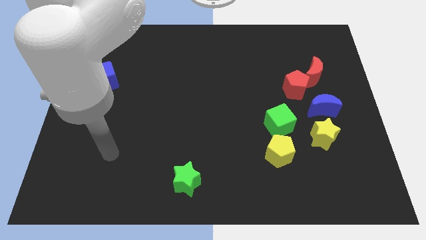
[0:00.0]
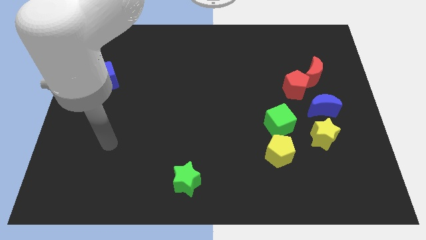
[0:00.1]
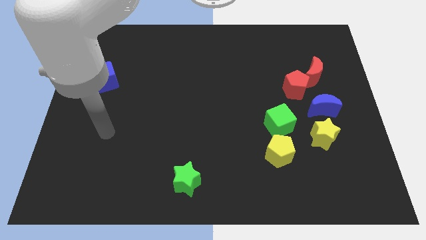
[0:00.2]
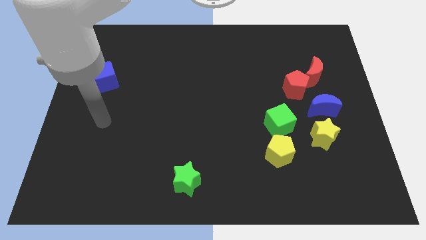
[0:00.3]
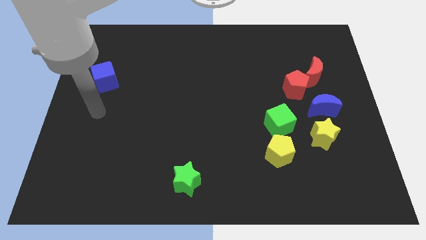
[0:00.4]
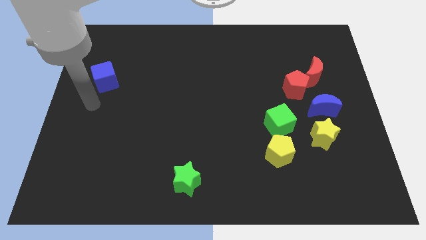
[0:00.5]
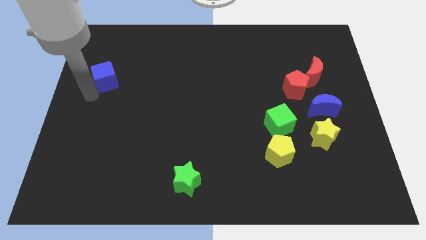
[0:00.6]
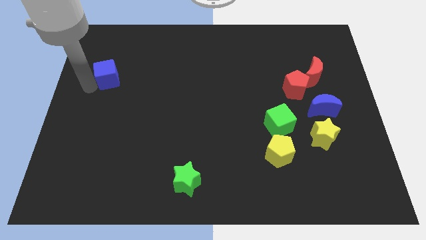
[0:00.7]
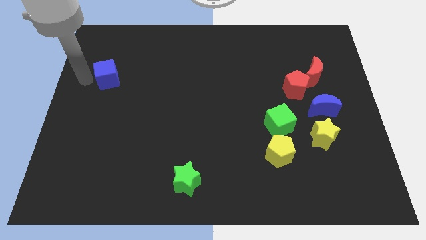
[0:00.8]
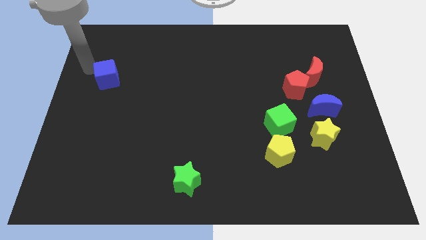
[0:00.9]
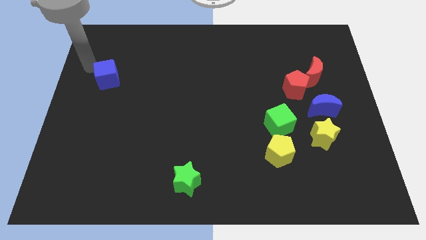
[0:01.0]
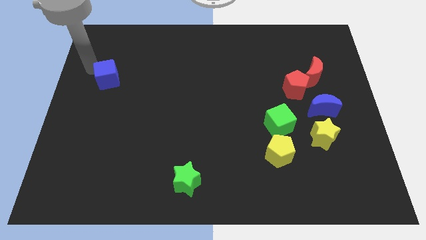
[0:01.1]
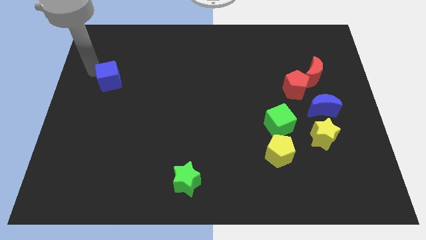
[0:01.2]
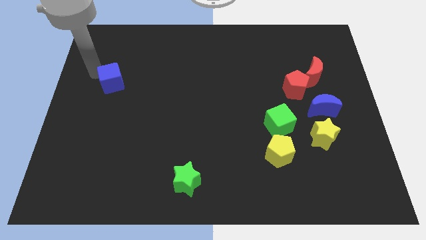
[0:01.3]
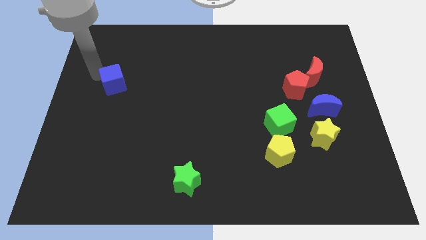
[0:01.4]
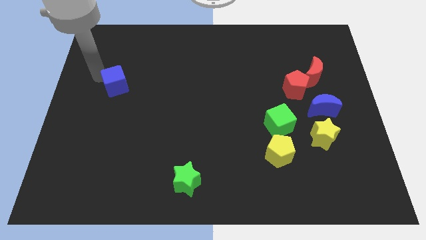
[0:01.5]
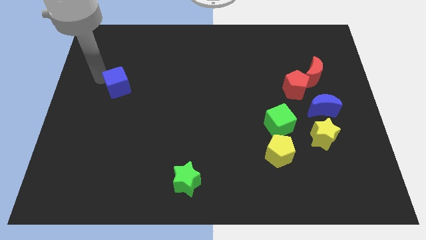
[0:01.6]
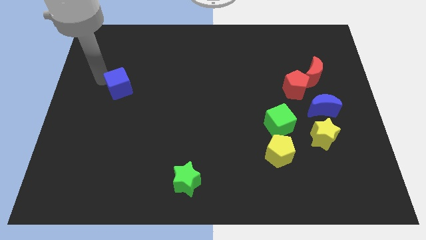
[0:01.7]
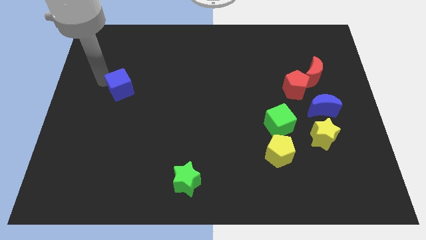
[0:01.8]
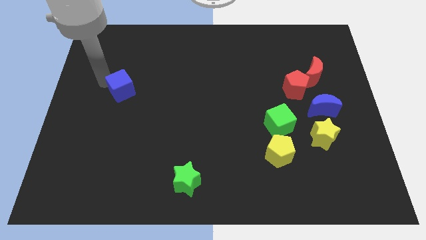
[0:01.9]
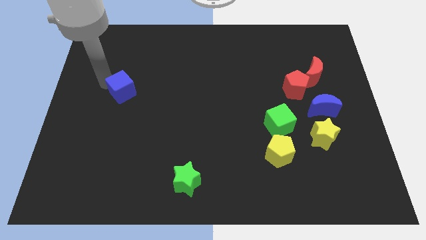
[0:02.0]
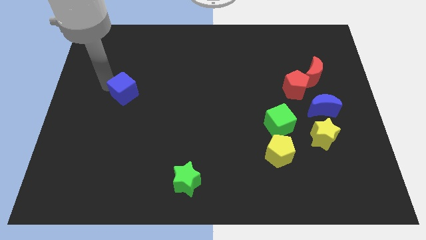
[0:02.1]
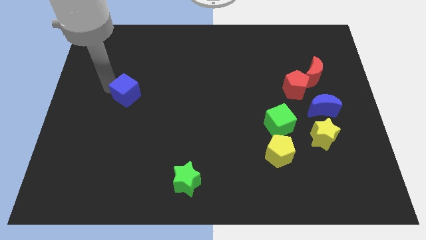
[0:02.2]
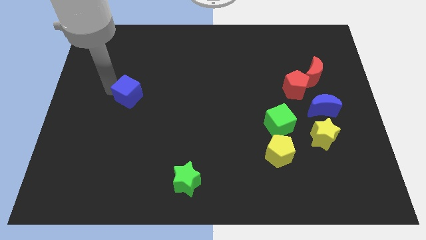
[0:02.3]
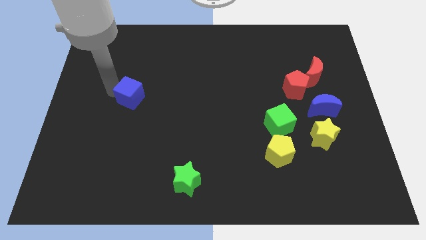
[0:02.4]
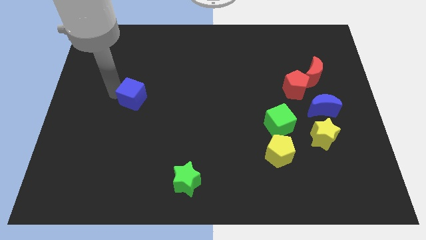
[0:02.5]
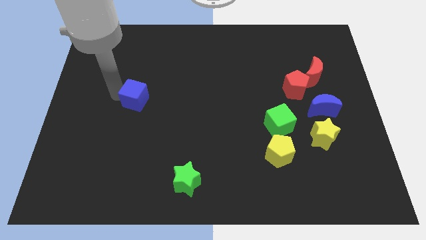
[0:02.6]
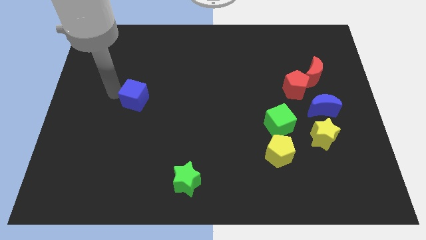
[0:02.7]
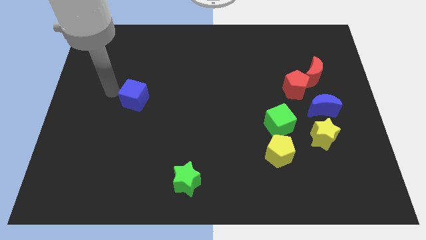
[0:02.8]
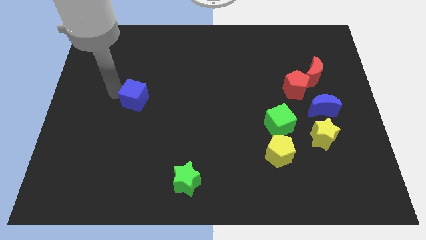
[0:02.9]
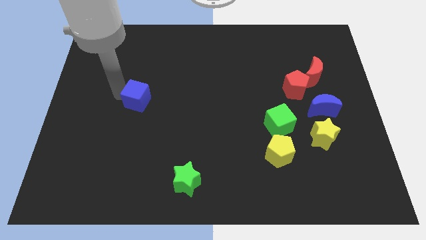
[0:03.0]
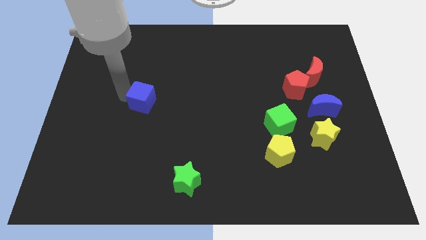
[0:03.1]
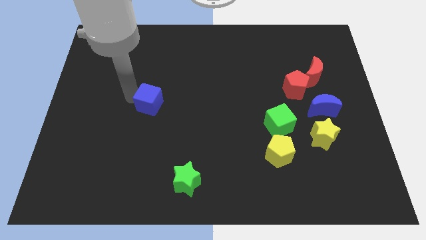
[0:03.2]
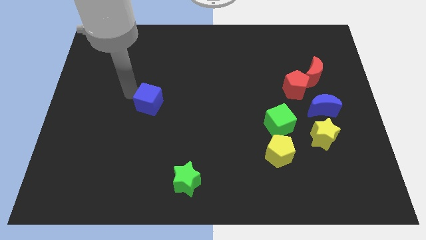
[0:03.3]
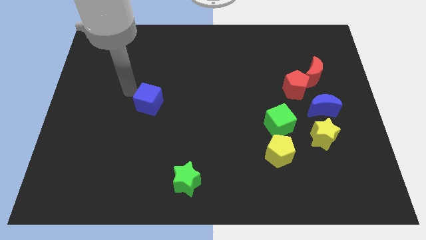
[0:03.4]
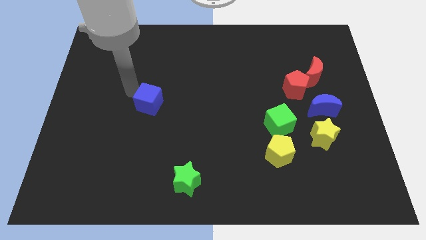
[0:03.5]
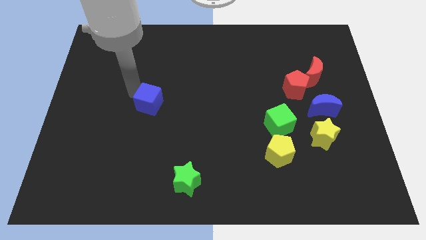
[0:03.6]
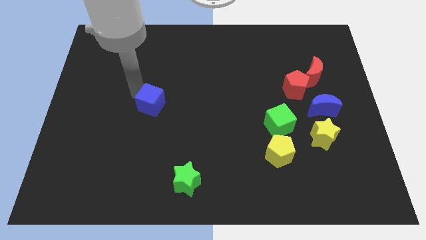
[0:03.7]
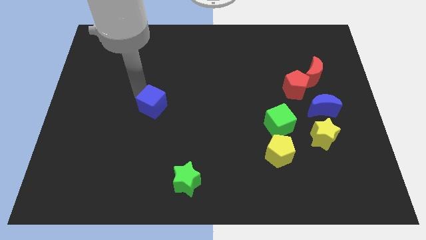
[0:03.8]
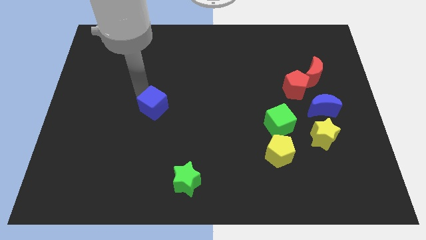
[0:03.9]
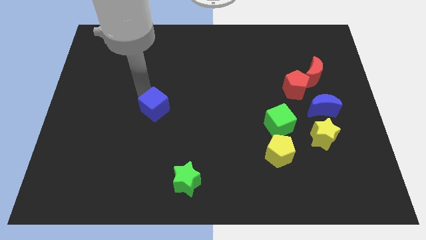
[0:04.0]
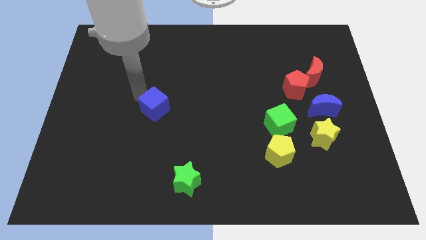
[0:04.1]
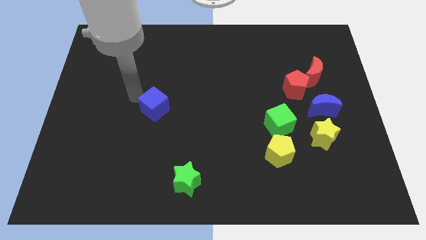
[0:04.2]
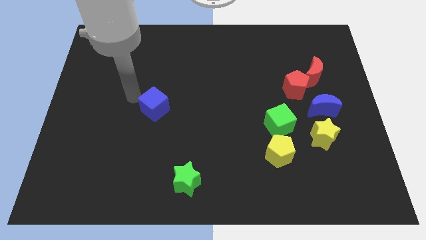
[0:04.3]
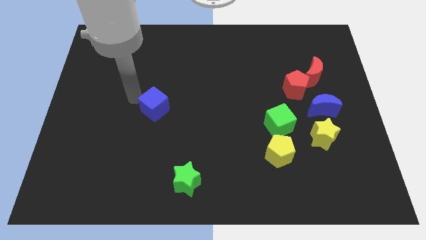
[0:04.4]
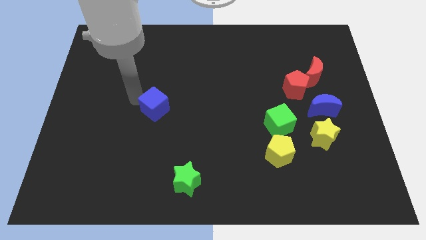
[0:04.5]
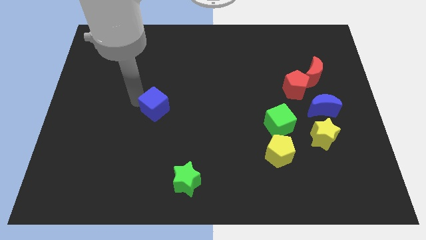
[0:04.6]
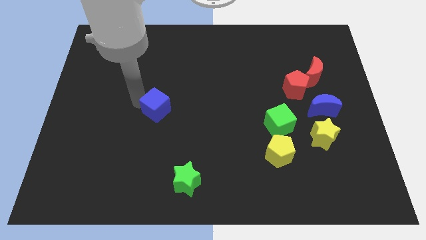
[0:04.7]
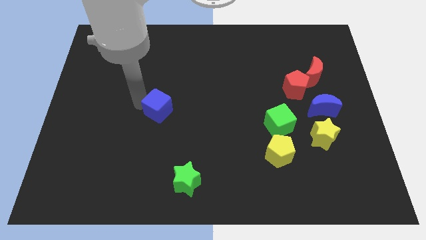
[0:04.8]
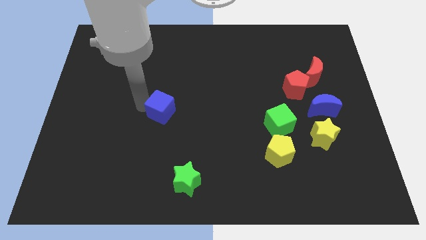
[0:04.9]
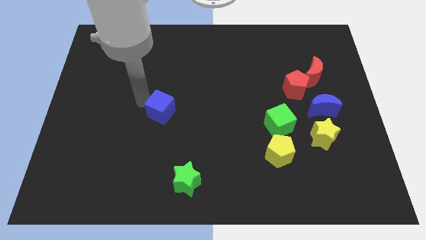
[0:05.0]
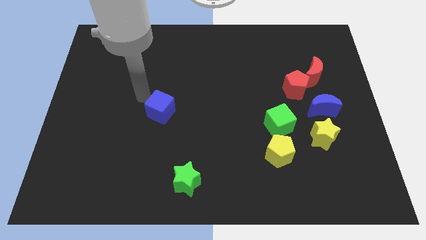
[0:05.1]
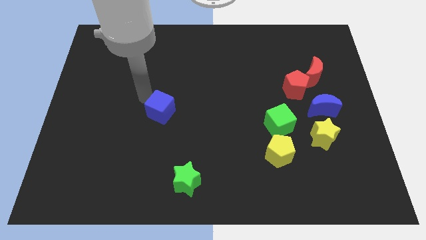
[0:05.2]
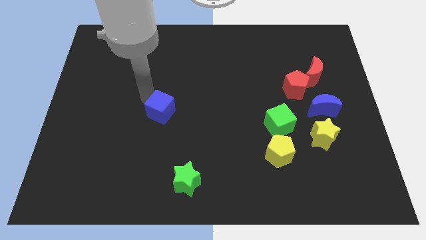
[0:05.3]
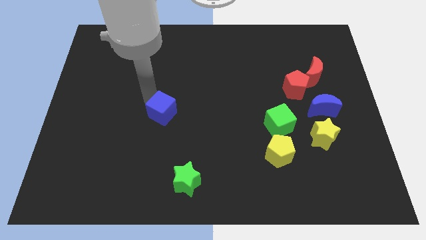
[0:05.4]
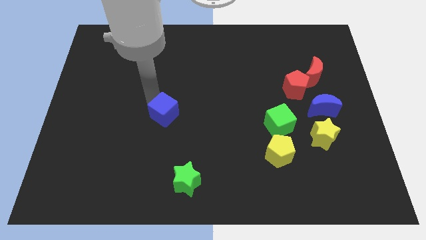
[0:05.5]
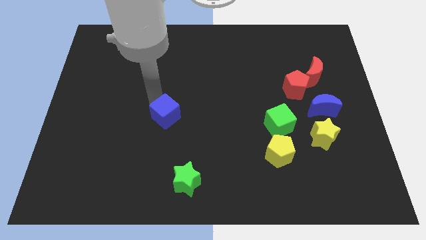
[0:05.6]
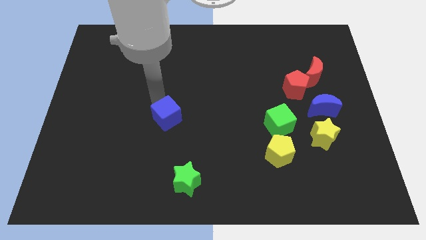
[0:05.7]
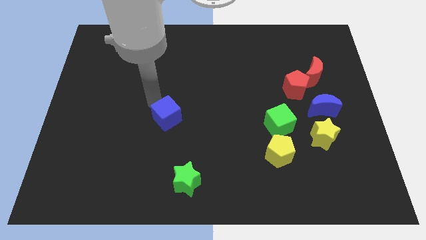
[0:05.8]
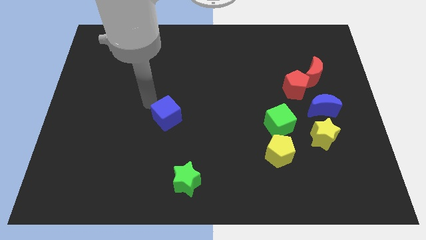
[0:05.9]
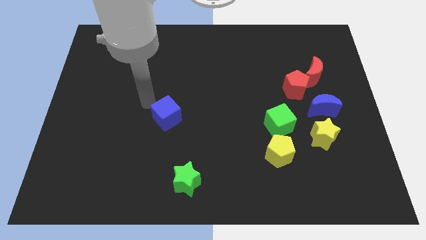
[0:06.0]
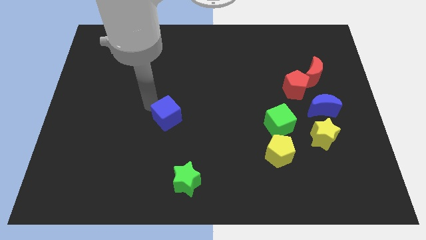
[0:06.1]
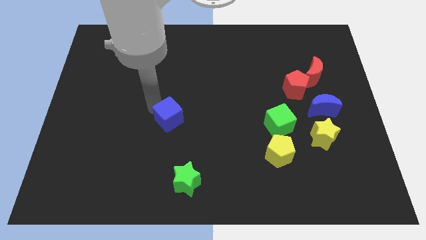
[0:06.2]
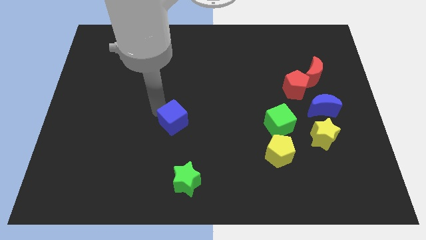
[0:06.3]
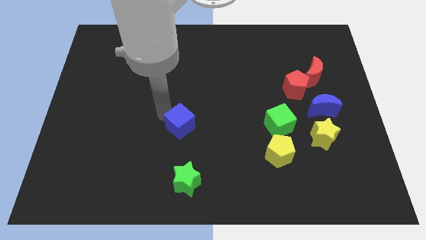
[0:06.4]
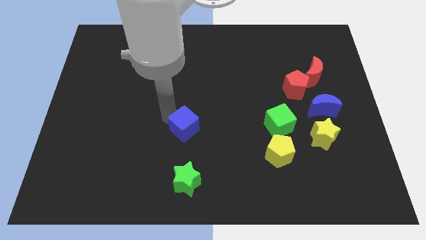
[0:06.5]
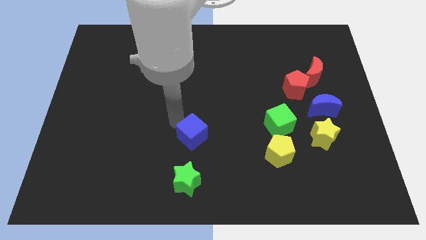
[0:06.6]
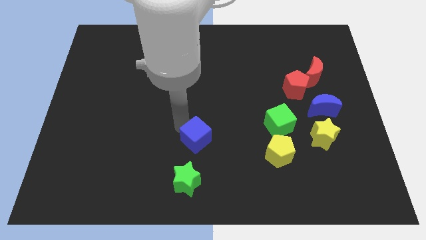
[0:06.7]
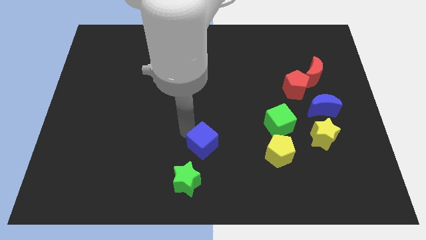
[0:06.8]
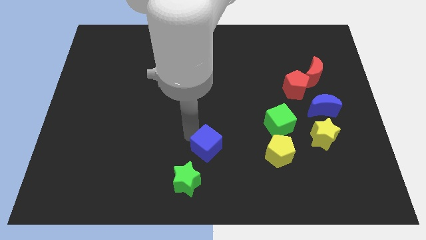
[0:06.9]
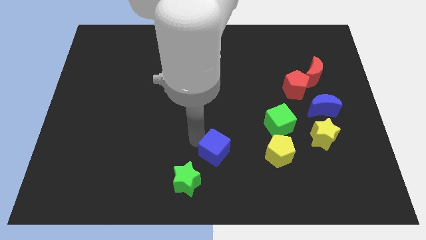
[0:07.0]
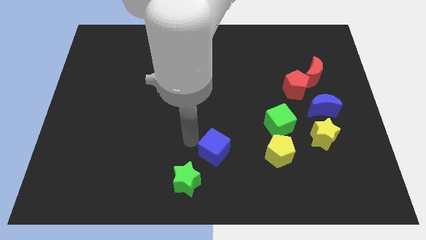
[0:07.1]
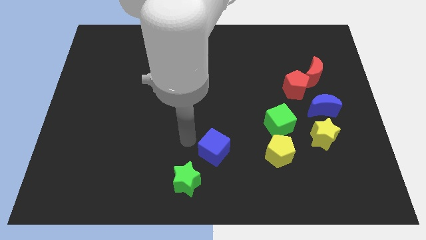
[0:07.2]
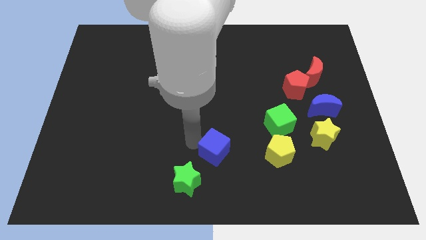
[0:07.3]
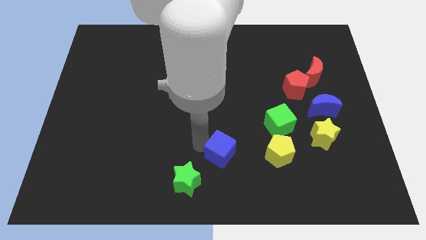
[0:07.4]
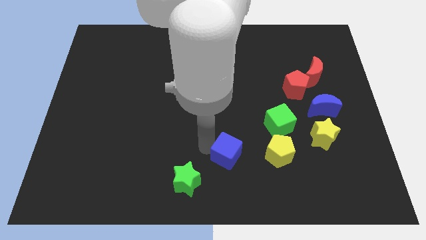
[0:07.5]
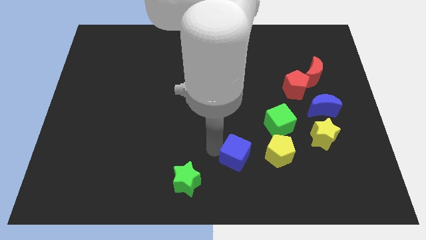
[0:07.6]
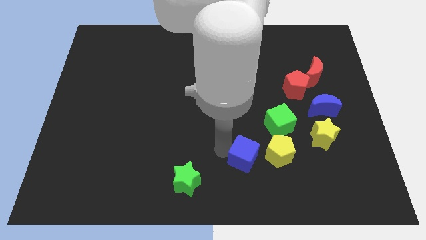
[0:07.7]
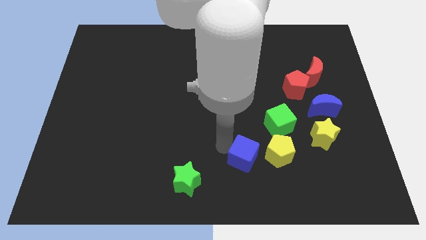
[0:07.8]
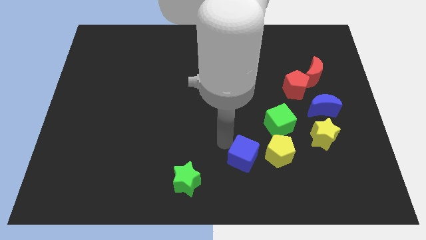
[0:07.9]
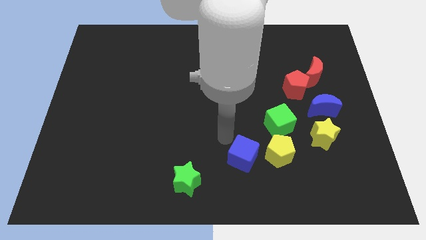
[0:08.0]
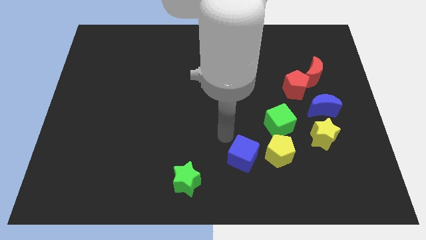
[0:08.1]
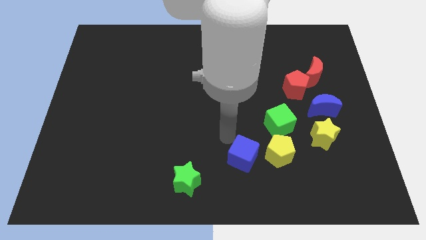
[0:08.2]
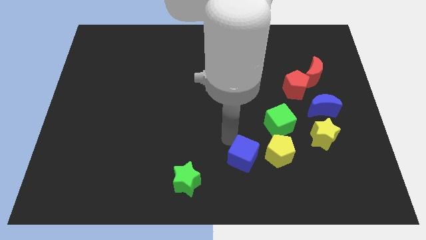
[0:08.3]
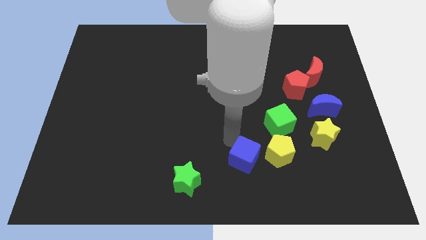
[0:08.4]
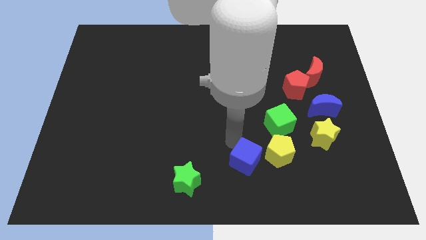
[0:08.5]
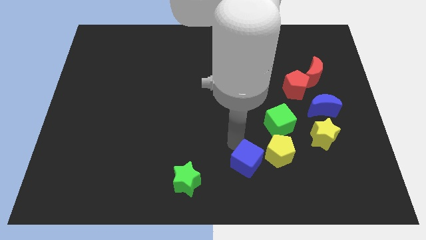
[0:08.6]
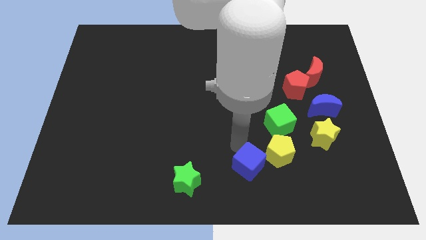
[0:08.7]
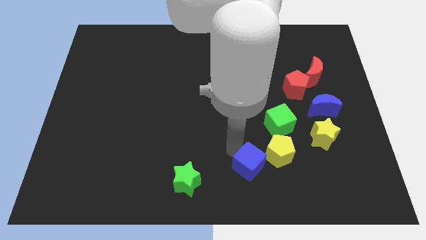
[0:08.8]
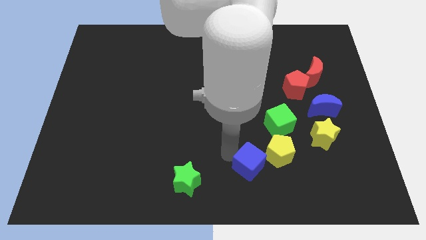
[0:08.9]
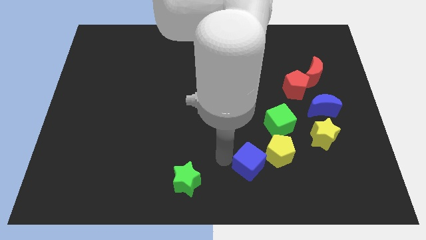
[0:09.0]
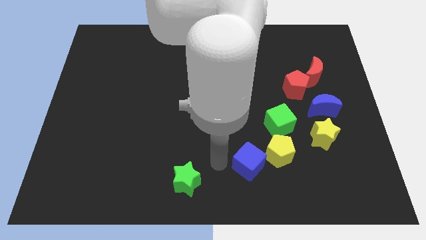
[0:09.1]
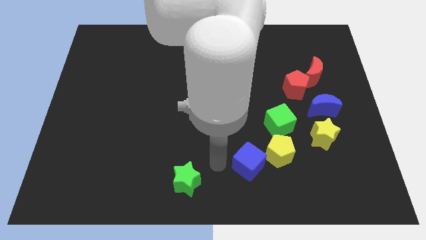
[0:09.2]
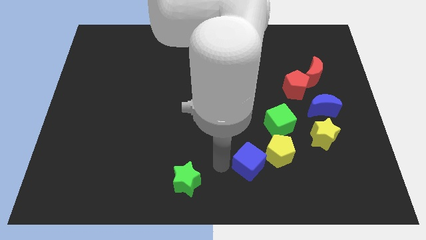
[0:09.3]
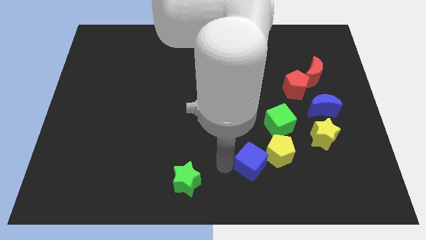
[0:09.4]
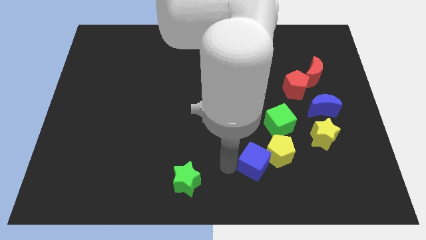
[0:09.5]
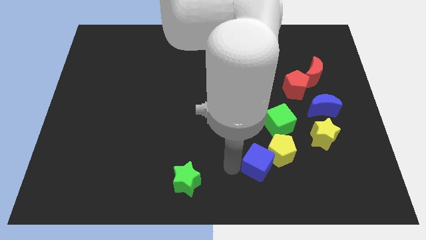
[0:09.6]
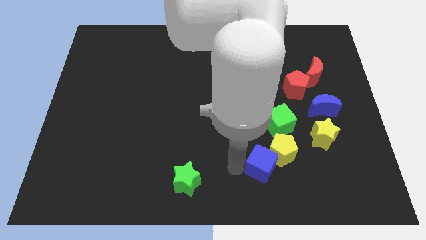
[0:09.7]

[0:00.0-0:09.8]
move the blue cube to the bottom side of the green cube
